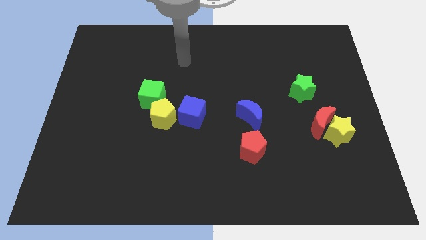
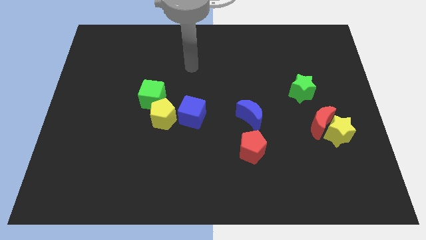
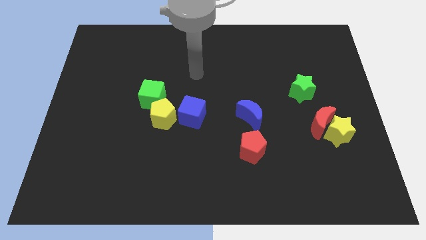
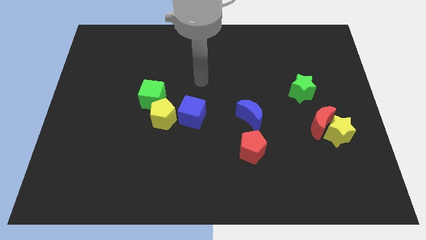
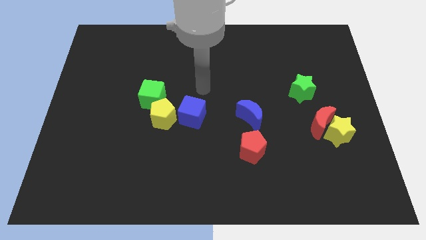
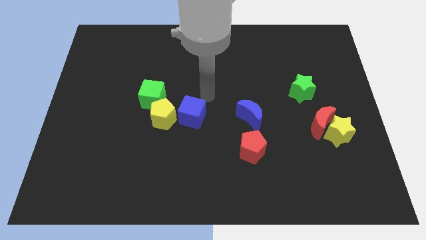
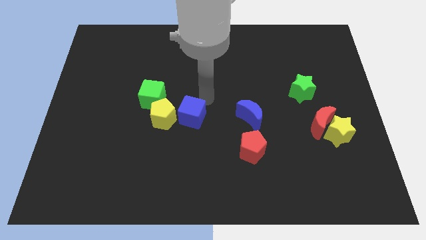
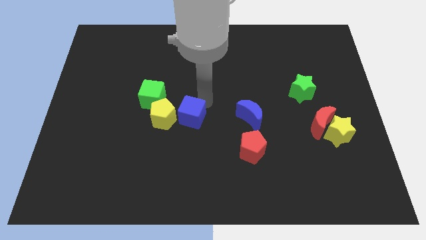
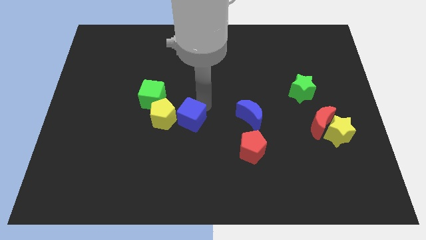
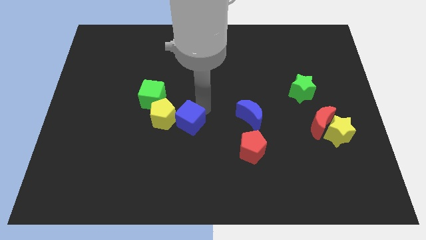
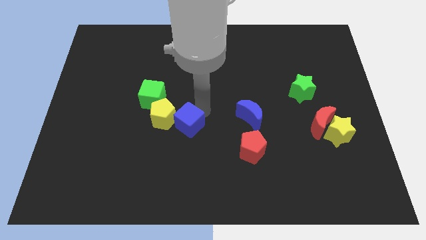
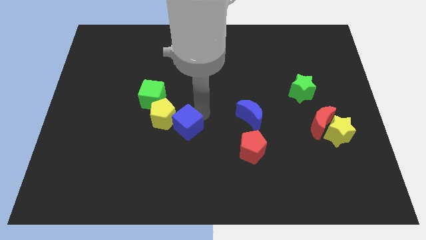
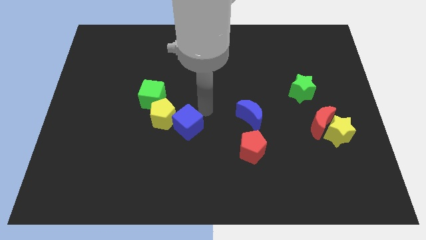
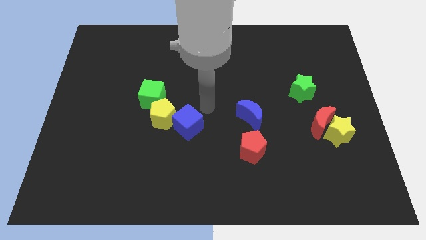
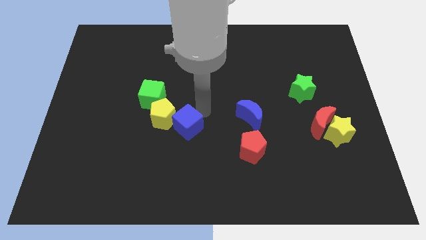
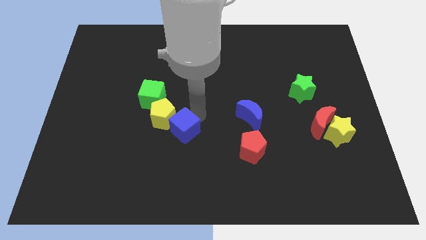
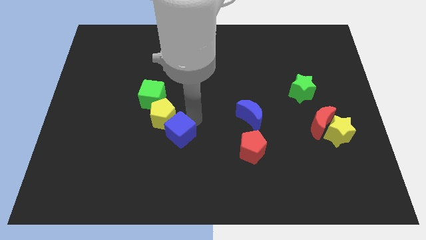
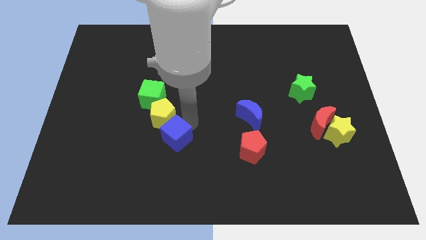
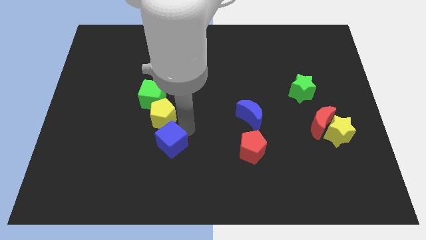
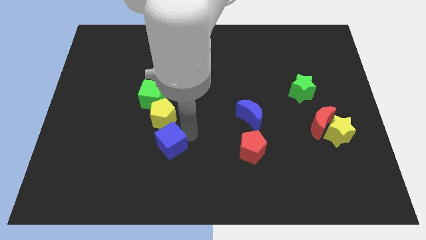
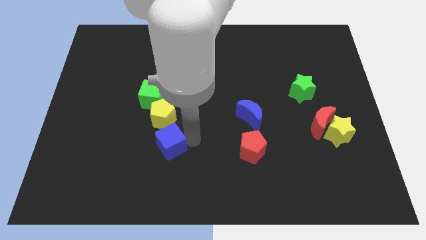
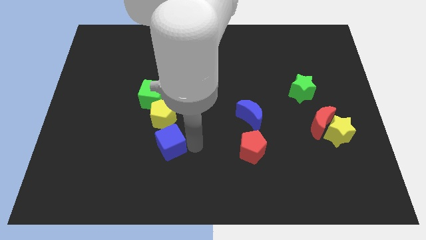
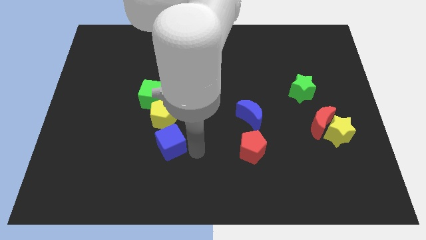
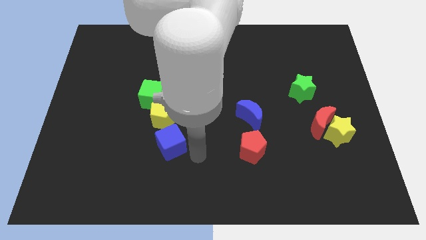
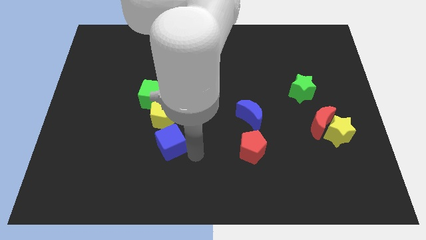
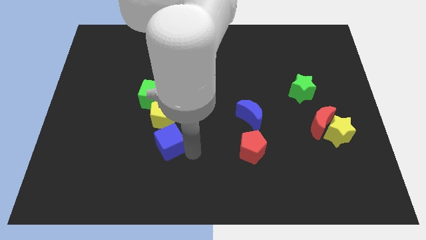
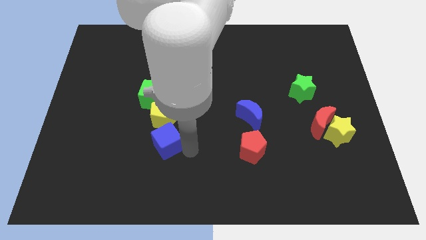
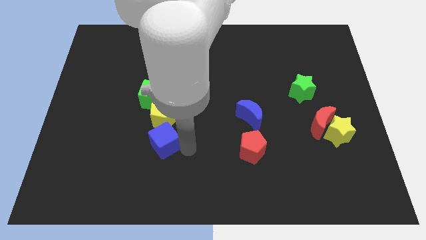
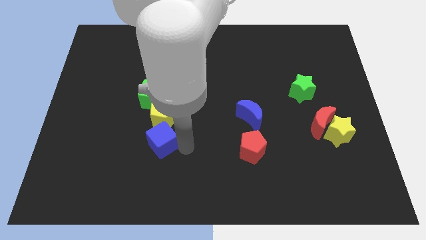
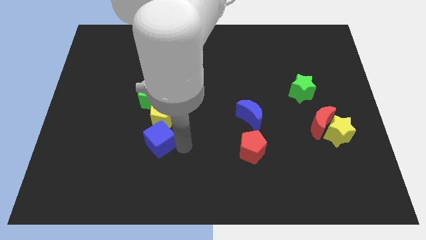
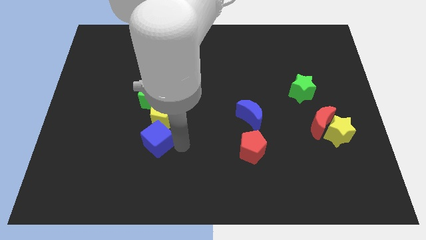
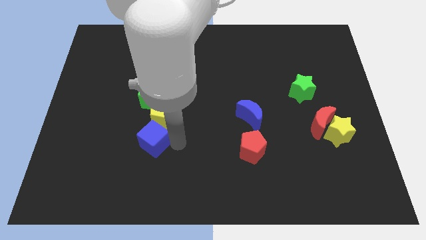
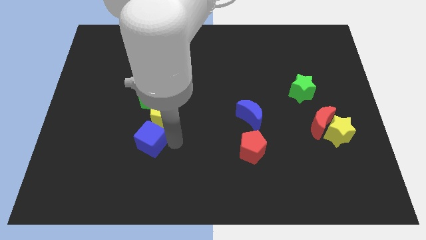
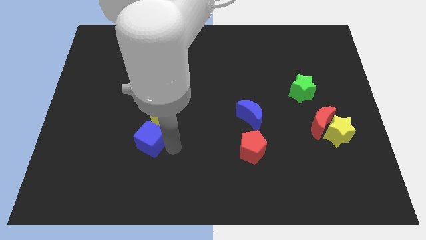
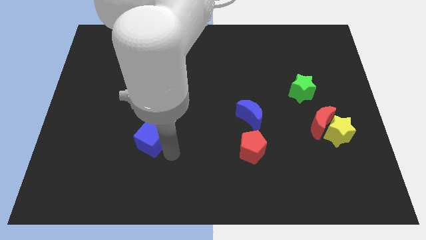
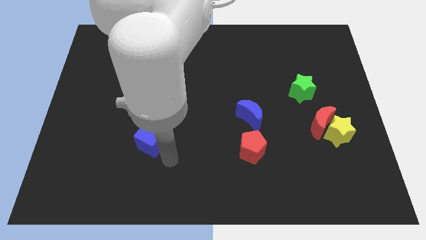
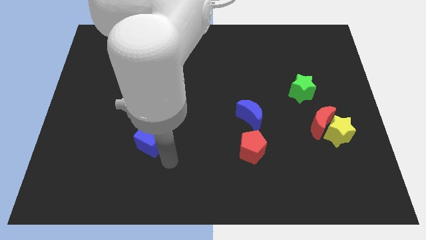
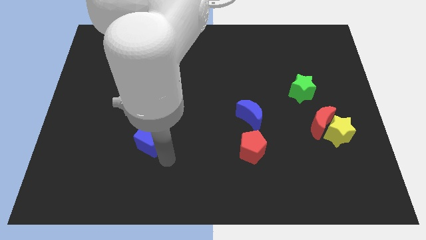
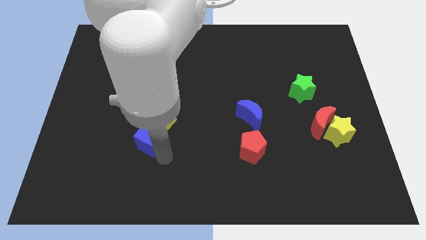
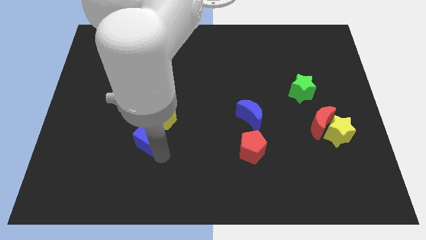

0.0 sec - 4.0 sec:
push the blue cube left a little bit

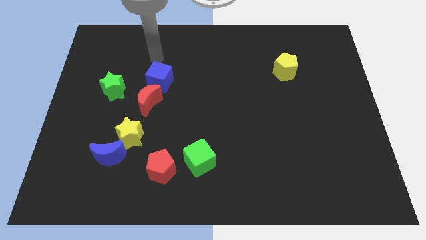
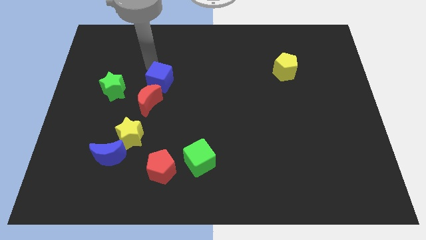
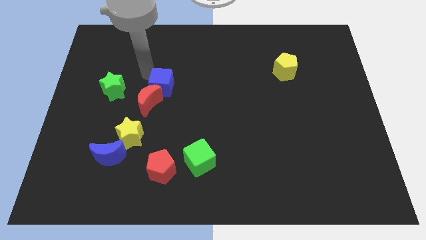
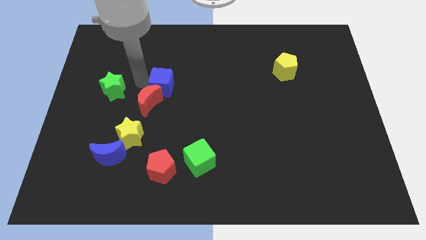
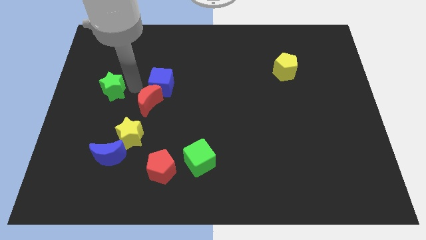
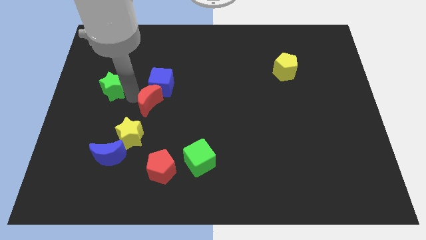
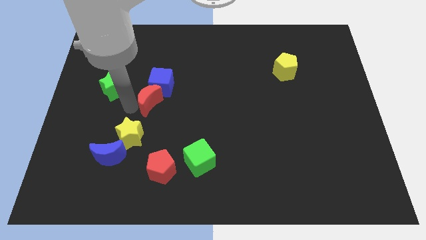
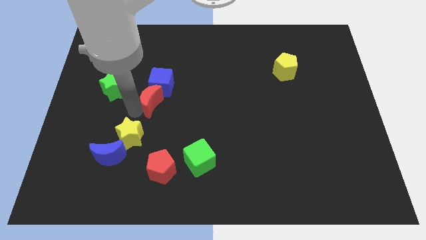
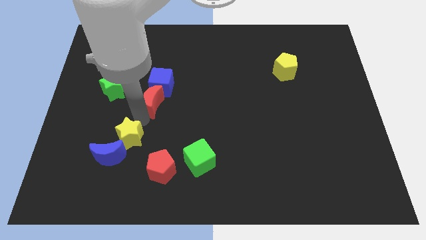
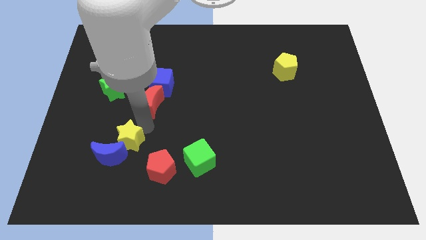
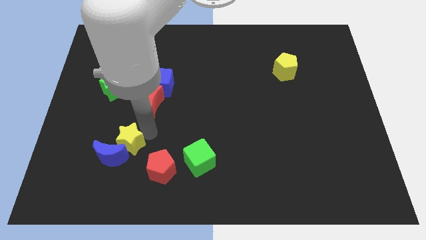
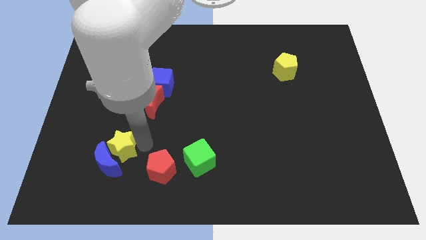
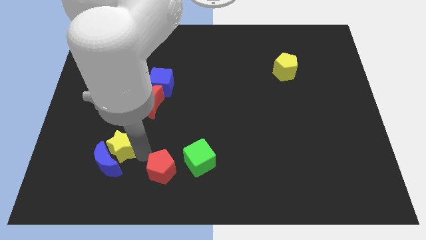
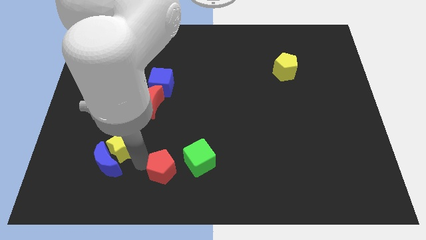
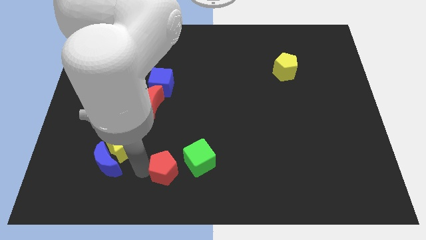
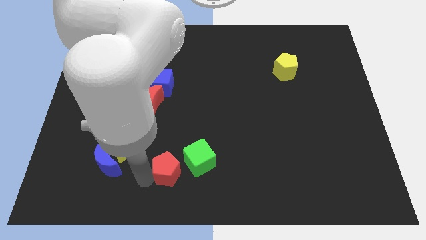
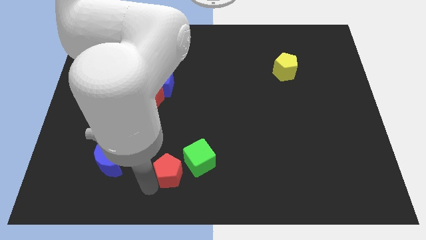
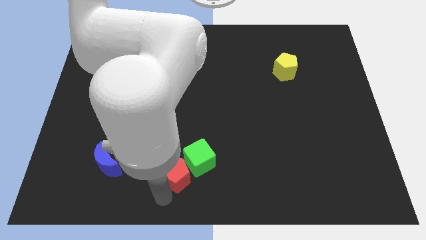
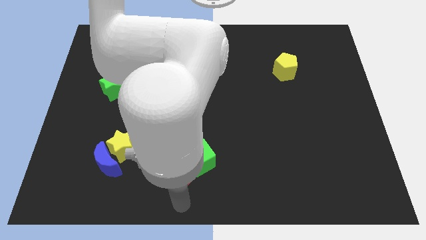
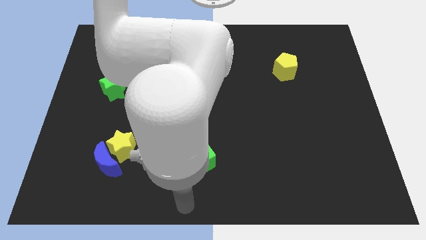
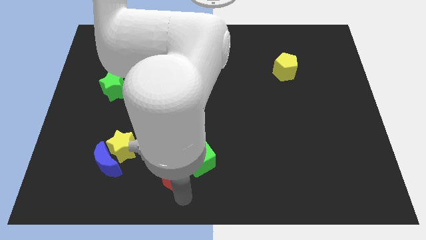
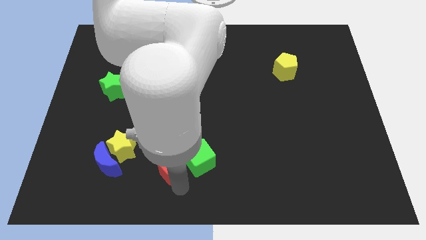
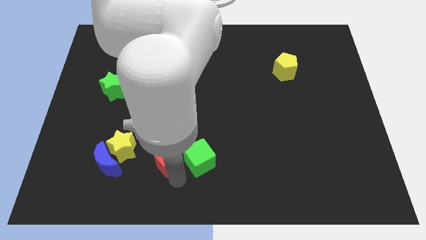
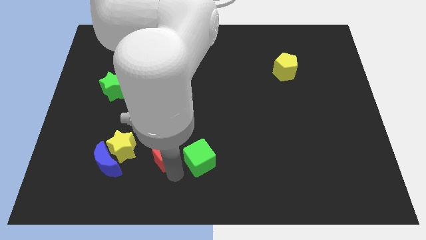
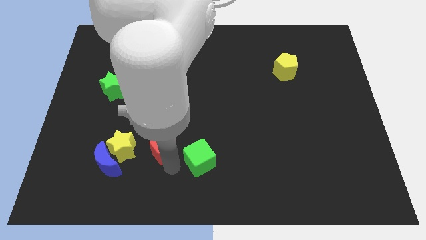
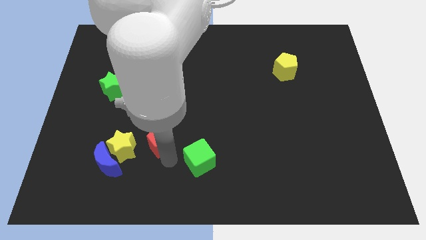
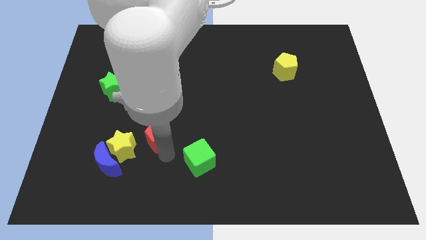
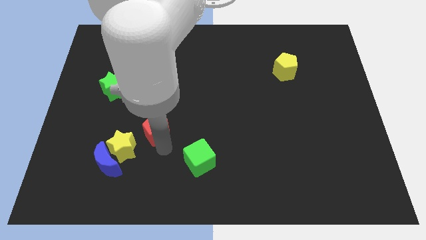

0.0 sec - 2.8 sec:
slightly push the red pentagon upwards and to the left diagonally

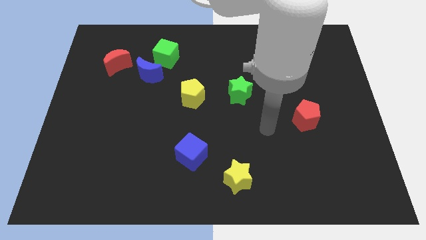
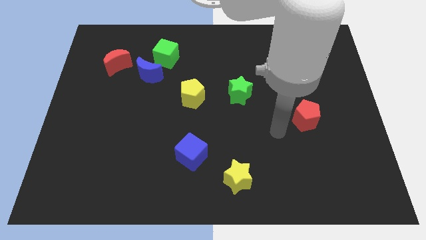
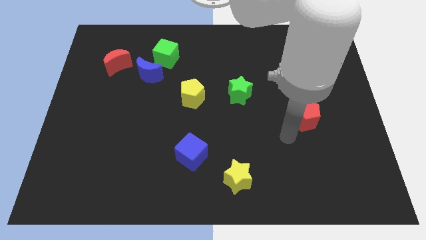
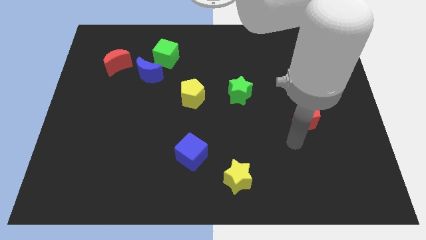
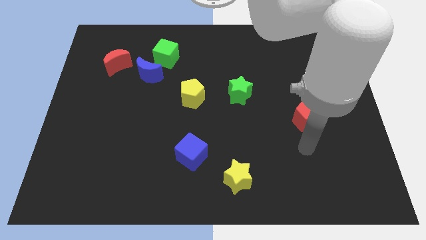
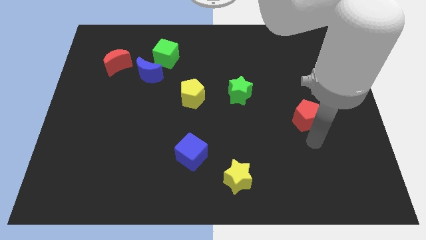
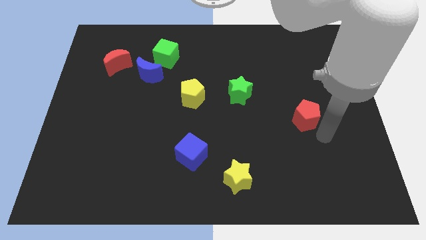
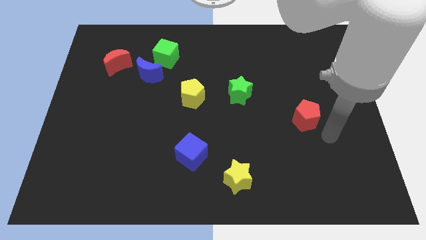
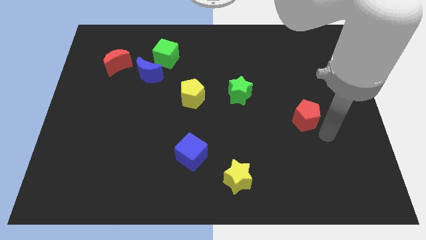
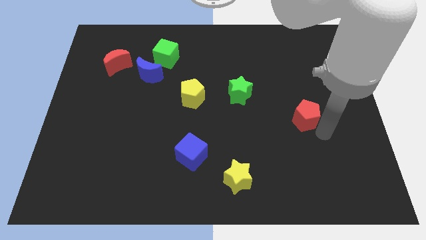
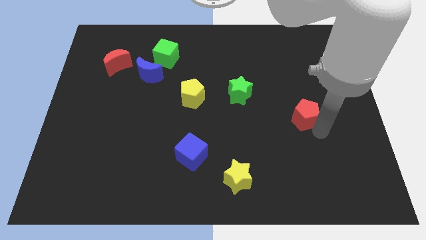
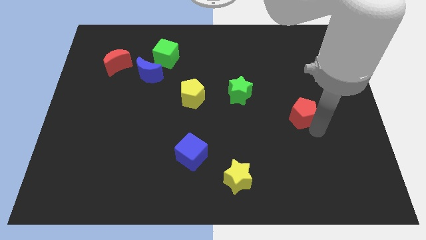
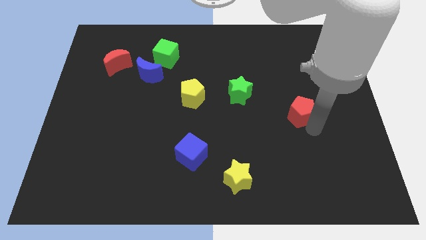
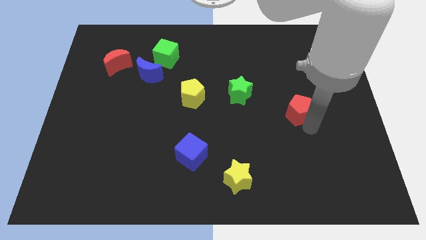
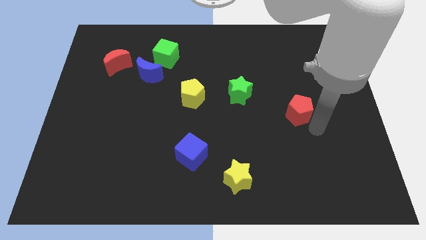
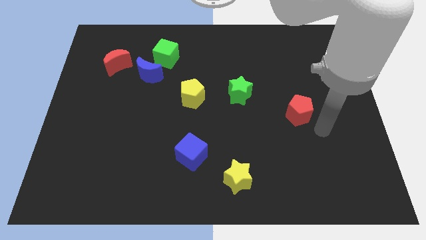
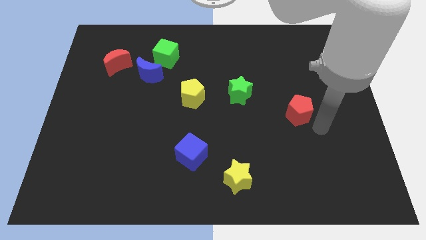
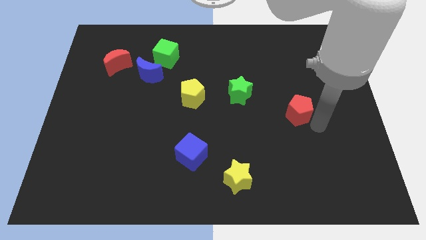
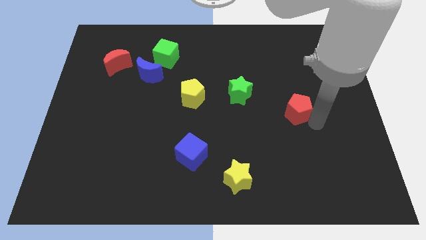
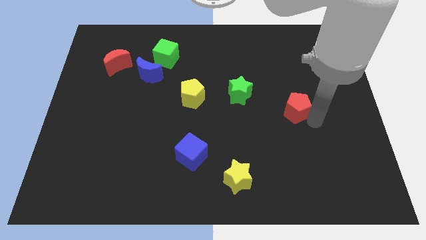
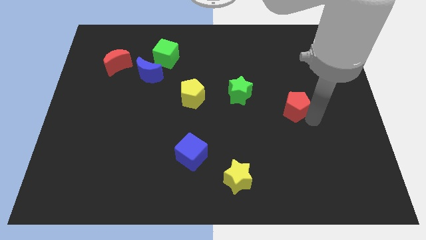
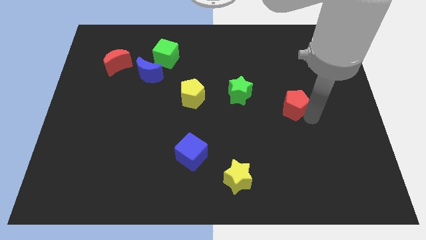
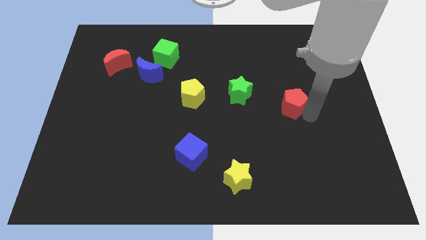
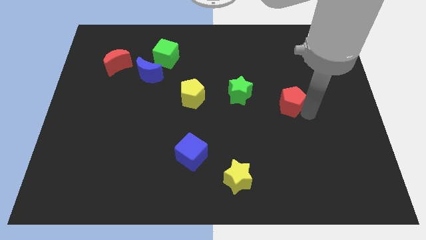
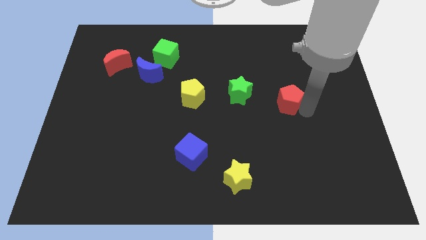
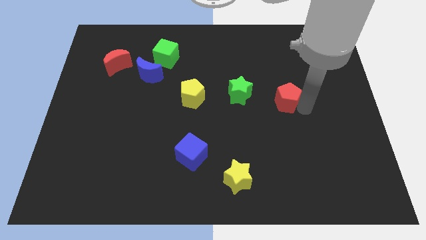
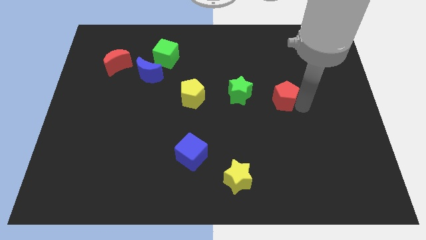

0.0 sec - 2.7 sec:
slide the red pentagon slightly up and left diagonally
